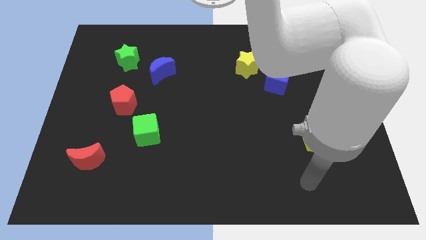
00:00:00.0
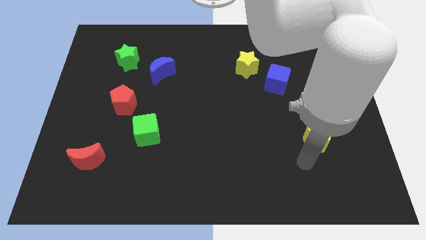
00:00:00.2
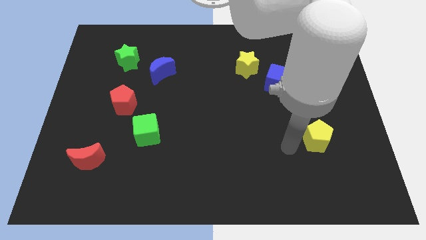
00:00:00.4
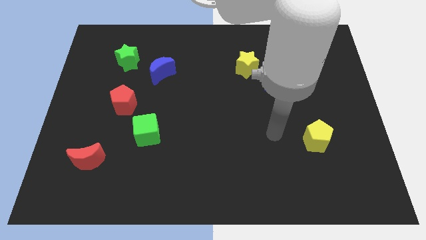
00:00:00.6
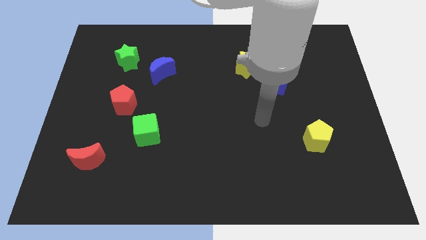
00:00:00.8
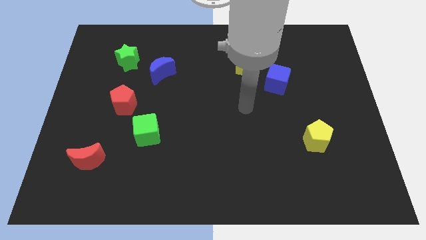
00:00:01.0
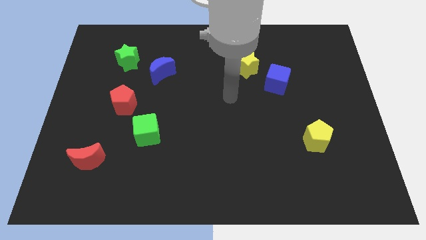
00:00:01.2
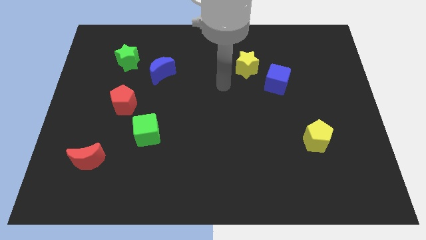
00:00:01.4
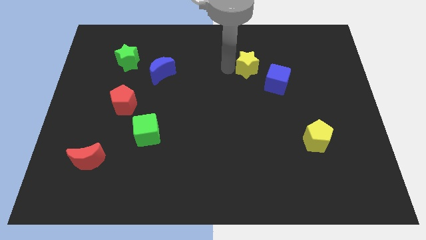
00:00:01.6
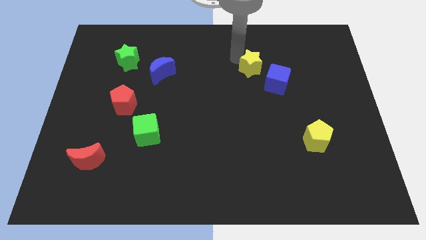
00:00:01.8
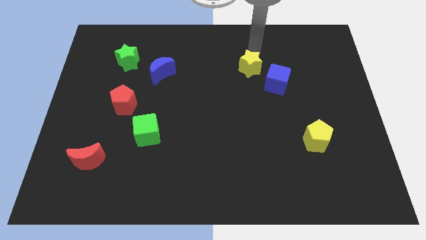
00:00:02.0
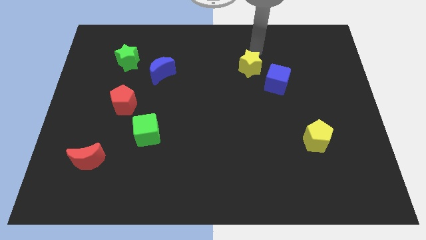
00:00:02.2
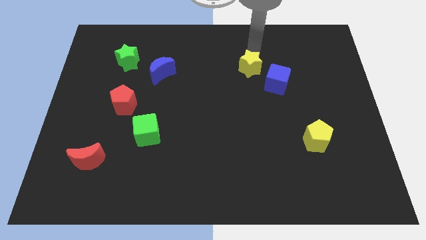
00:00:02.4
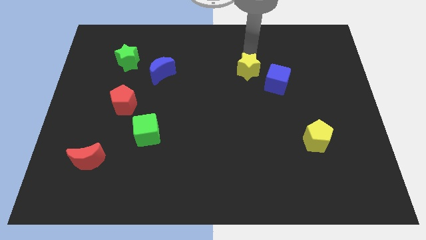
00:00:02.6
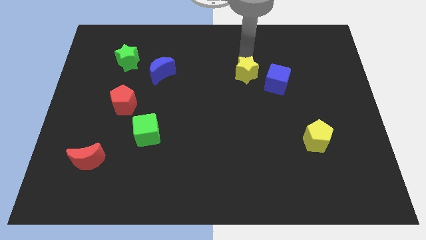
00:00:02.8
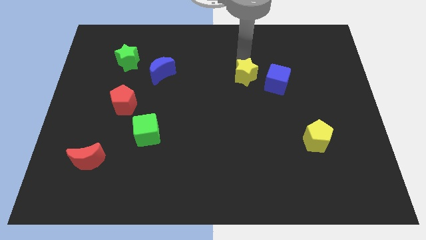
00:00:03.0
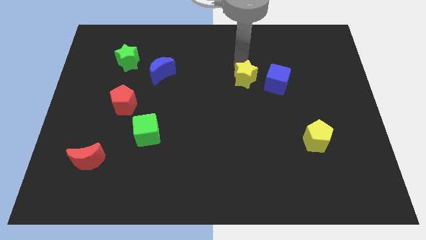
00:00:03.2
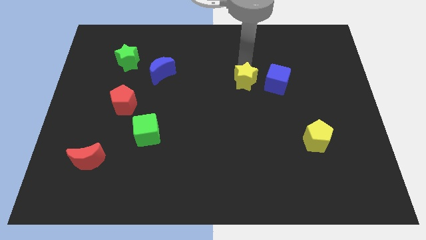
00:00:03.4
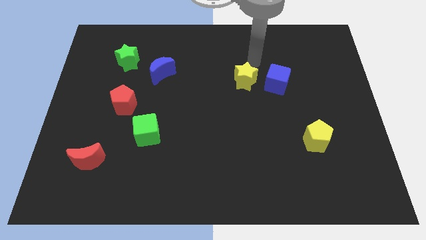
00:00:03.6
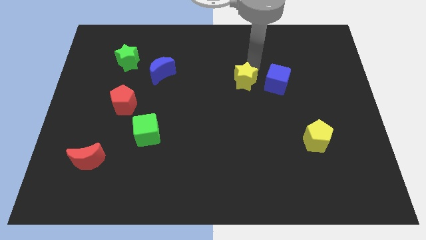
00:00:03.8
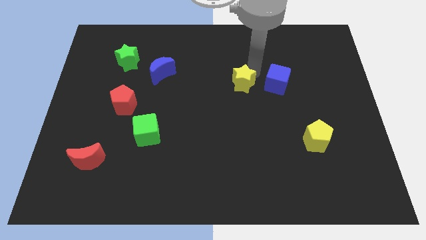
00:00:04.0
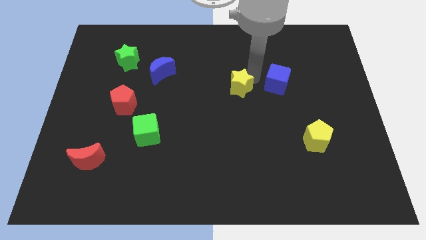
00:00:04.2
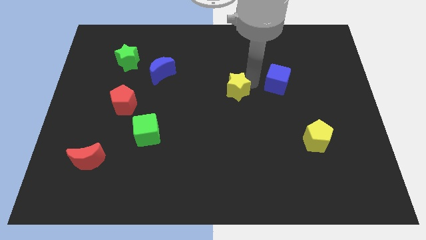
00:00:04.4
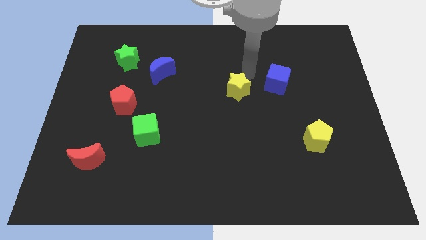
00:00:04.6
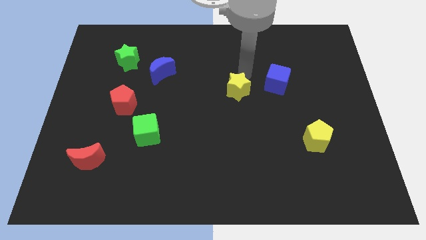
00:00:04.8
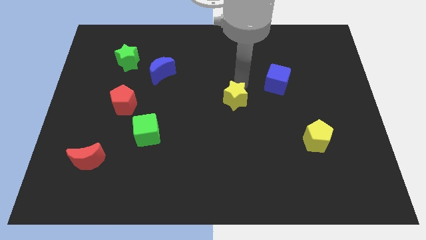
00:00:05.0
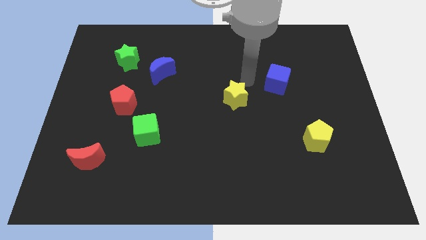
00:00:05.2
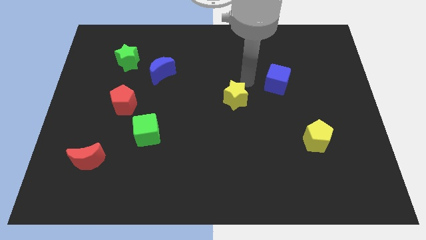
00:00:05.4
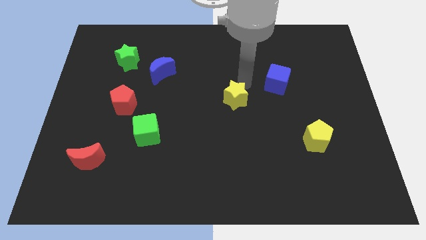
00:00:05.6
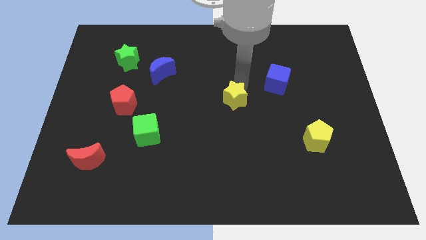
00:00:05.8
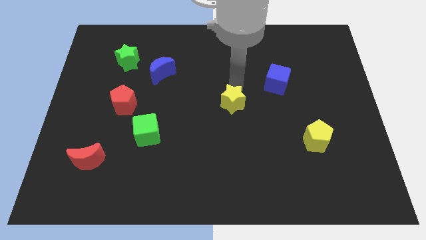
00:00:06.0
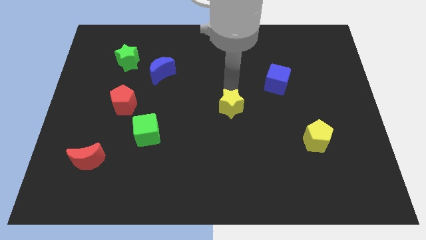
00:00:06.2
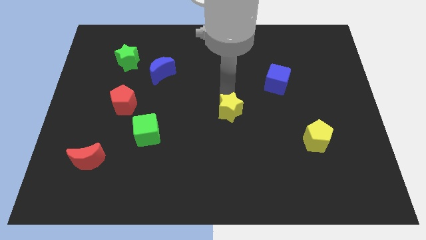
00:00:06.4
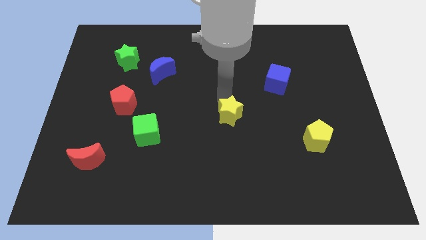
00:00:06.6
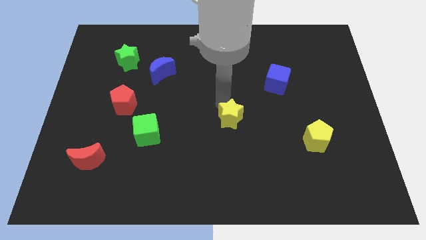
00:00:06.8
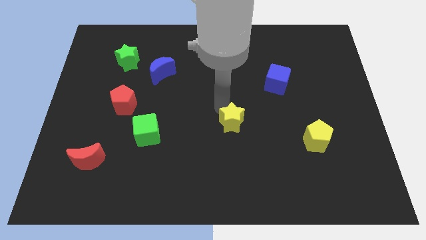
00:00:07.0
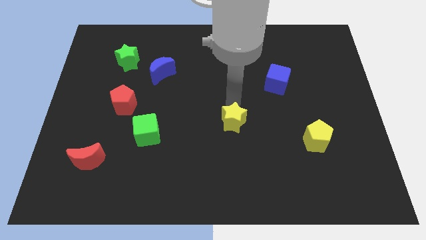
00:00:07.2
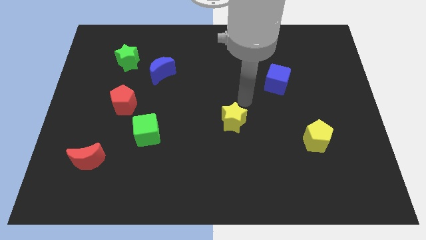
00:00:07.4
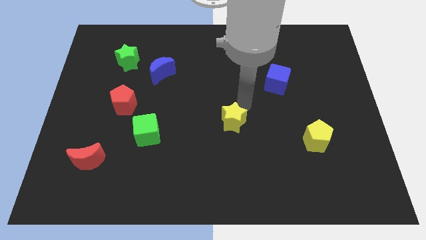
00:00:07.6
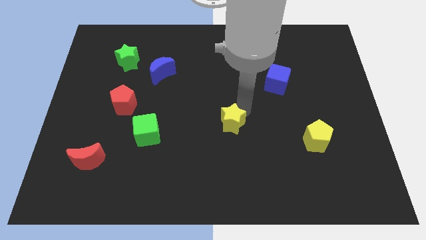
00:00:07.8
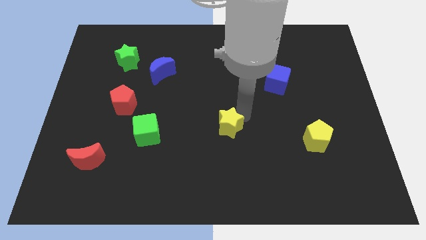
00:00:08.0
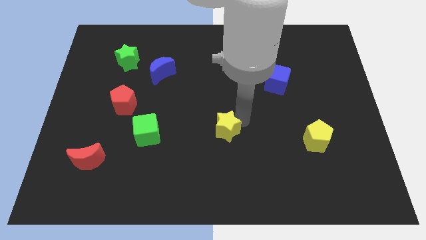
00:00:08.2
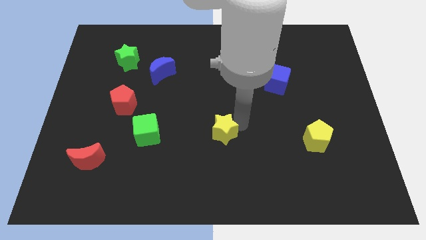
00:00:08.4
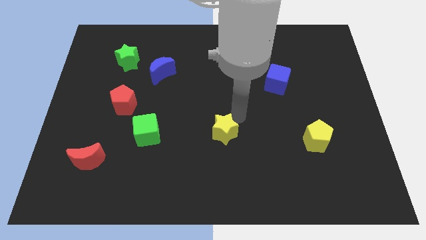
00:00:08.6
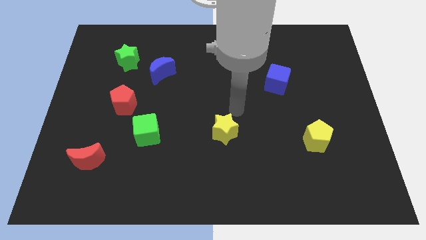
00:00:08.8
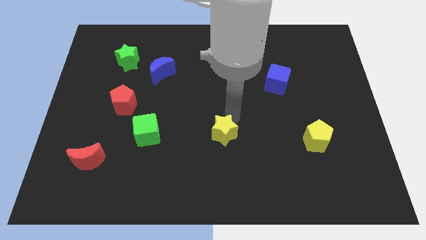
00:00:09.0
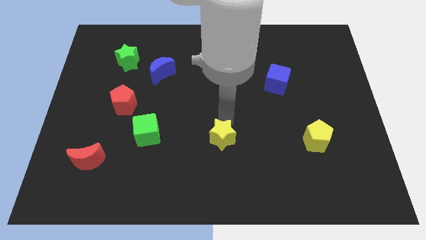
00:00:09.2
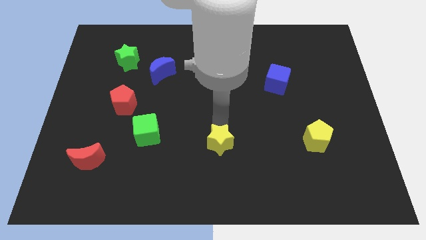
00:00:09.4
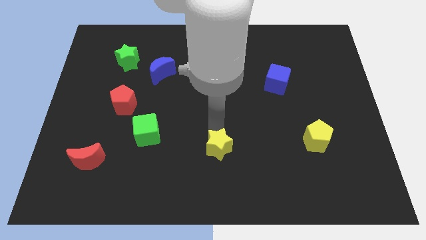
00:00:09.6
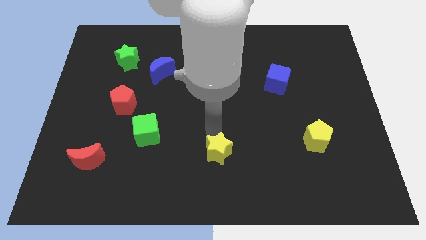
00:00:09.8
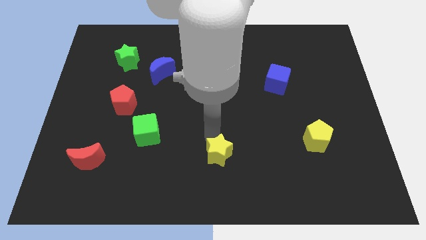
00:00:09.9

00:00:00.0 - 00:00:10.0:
push the yellow star to the bottom side

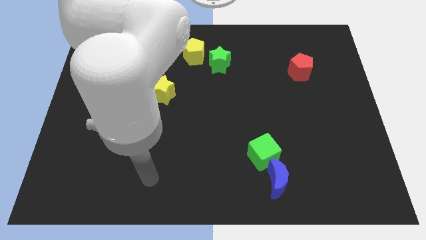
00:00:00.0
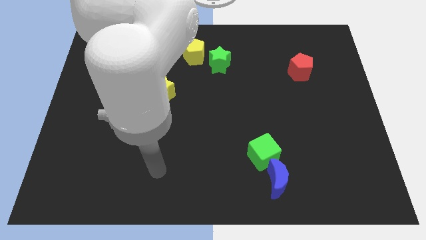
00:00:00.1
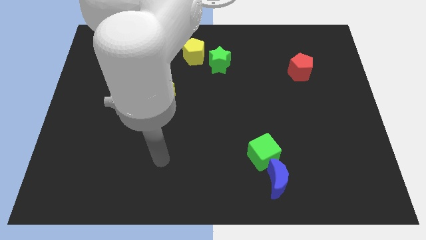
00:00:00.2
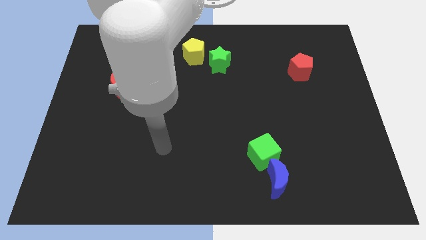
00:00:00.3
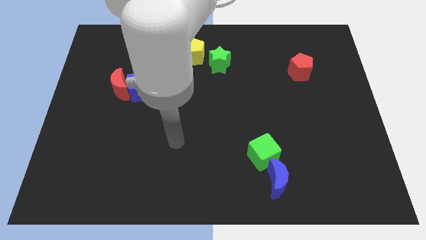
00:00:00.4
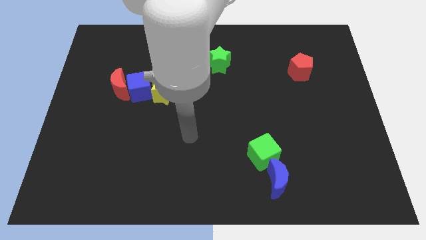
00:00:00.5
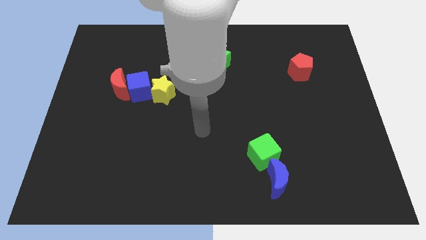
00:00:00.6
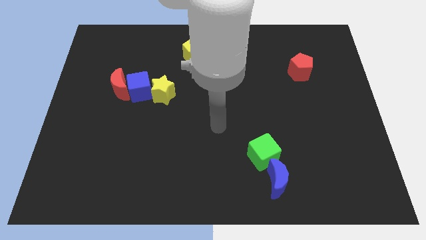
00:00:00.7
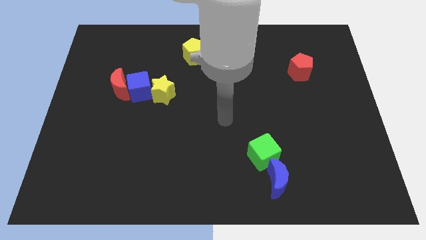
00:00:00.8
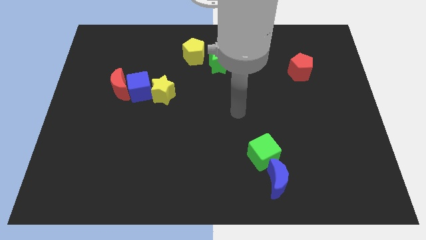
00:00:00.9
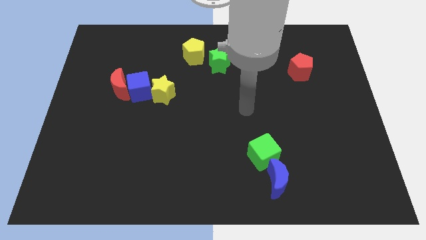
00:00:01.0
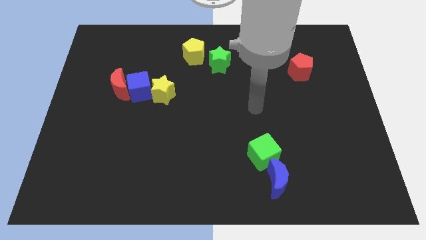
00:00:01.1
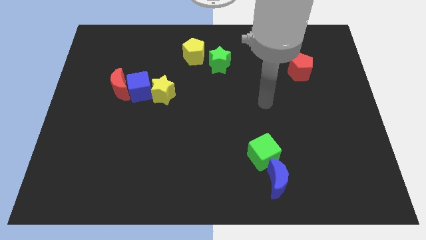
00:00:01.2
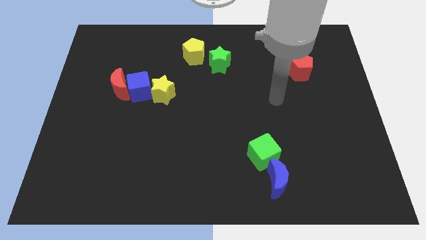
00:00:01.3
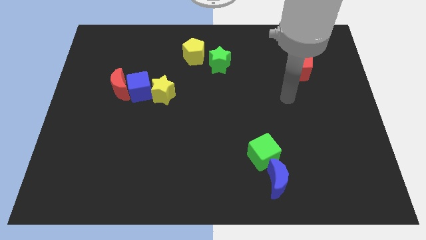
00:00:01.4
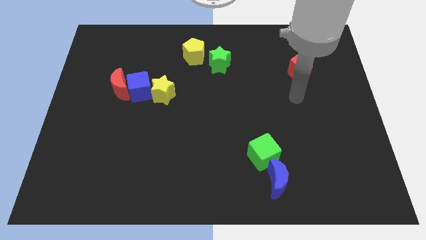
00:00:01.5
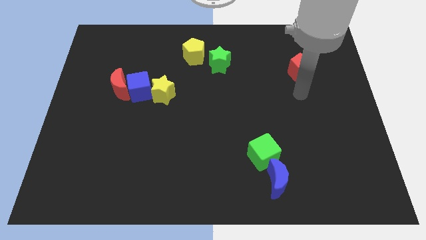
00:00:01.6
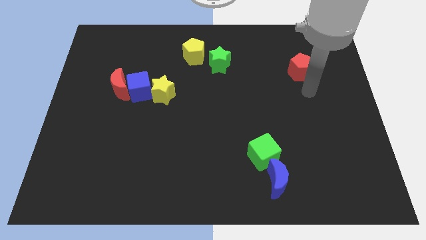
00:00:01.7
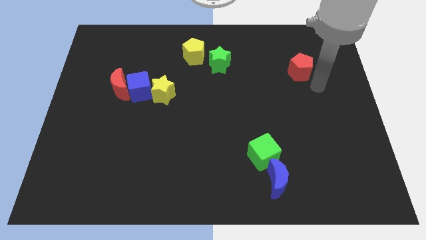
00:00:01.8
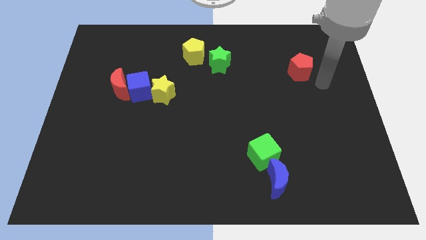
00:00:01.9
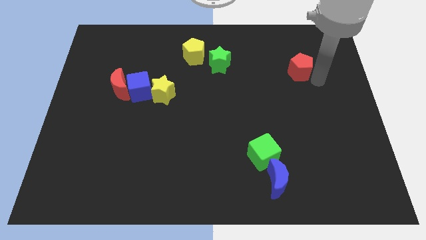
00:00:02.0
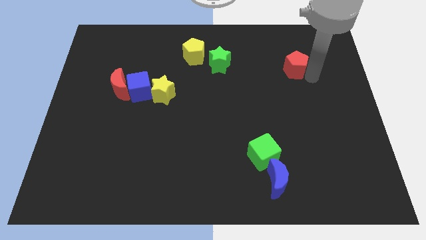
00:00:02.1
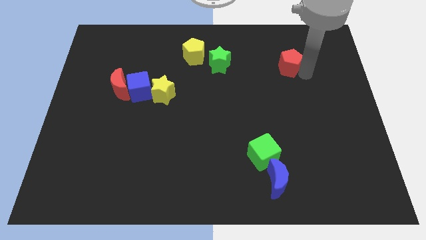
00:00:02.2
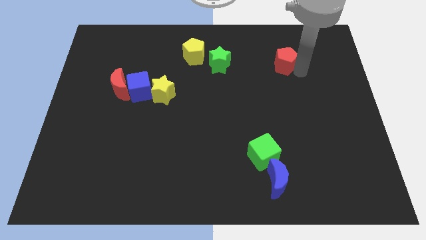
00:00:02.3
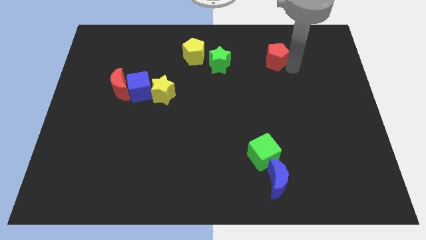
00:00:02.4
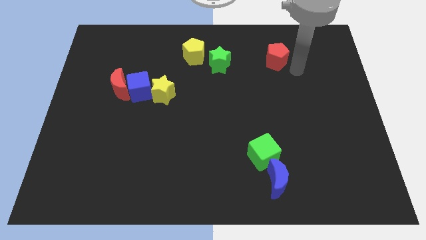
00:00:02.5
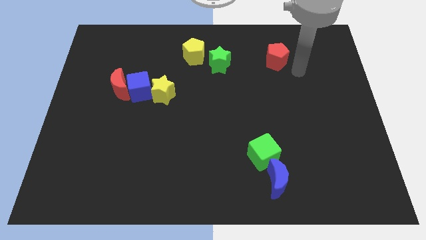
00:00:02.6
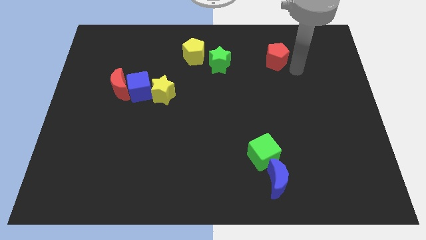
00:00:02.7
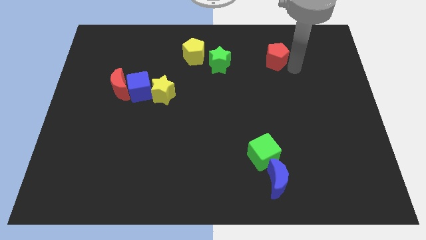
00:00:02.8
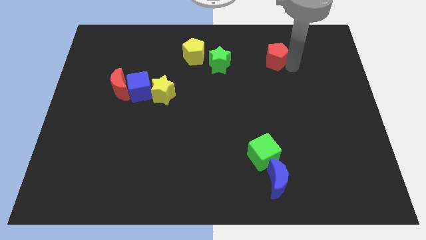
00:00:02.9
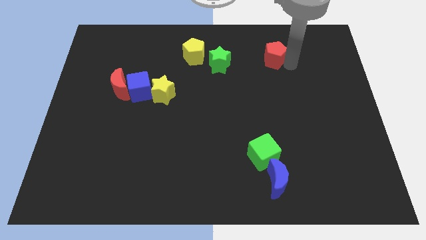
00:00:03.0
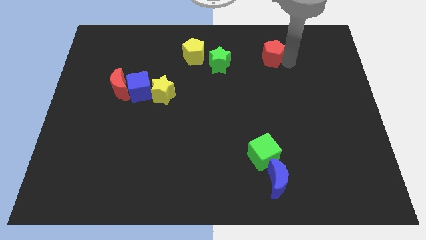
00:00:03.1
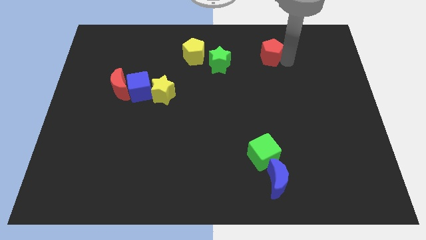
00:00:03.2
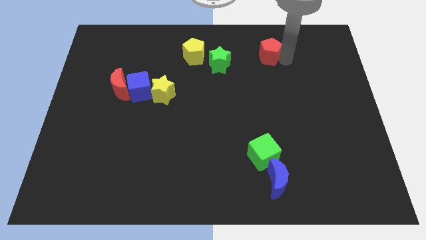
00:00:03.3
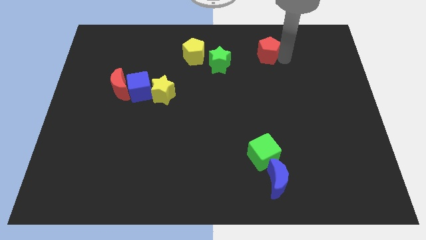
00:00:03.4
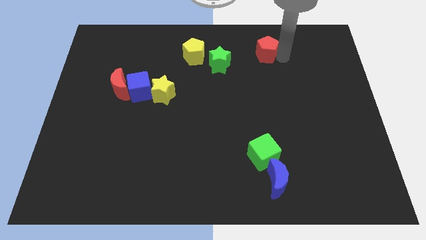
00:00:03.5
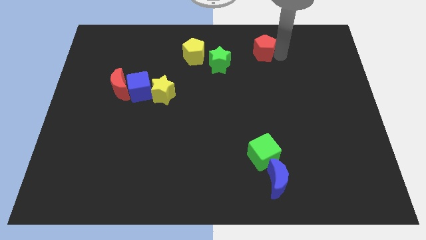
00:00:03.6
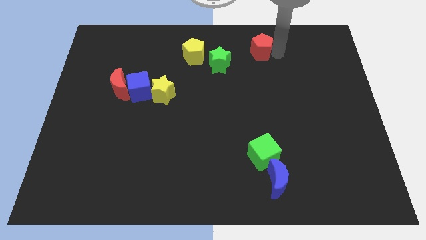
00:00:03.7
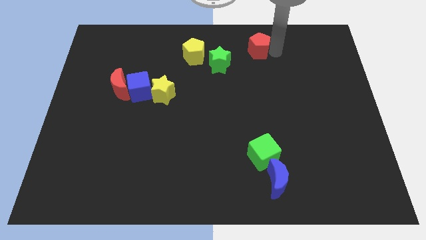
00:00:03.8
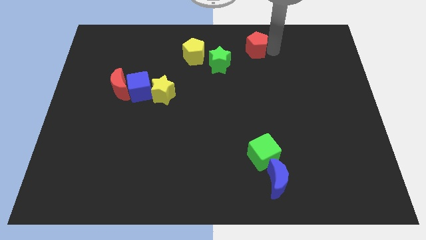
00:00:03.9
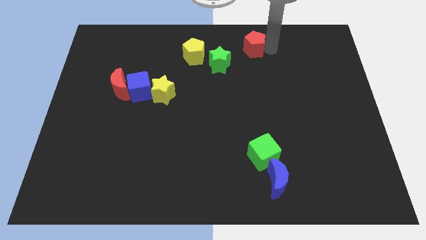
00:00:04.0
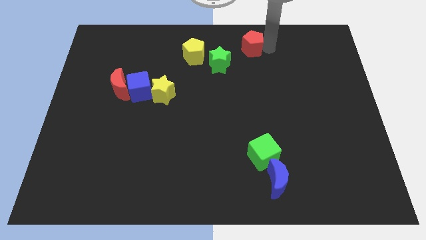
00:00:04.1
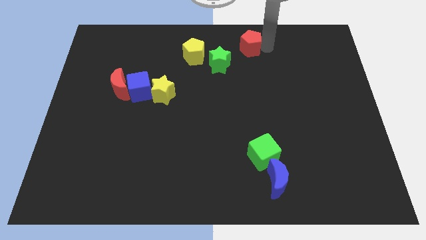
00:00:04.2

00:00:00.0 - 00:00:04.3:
slide the red pentagon to the towards your base
